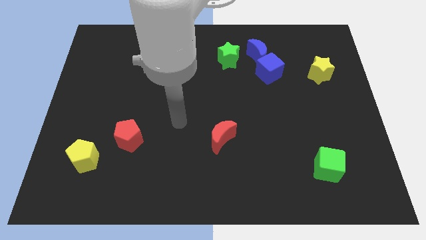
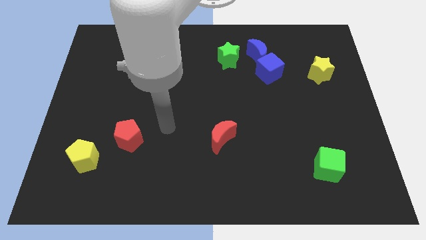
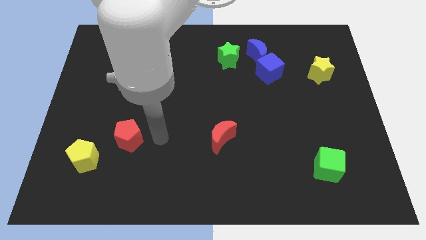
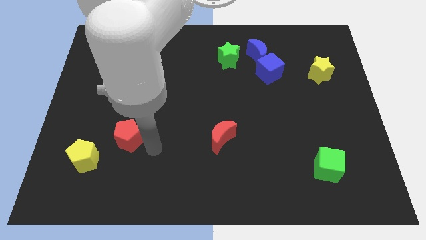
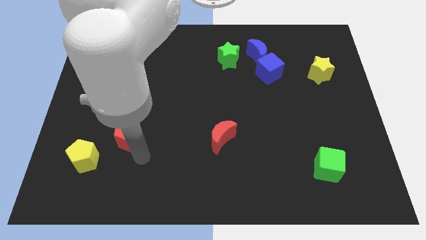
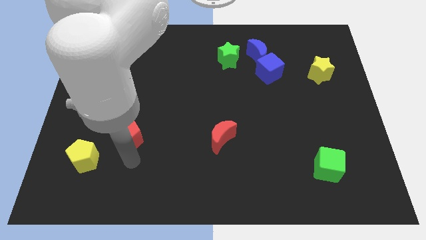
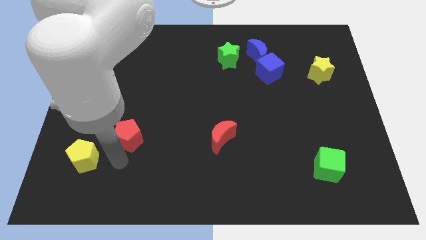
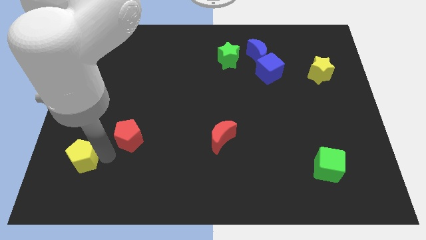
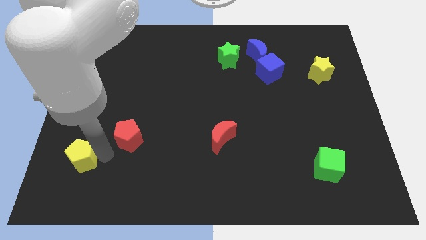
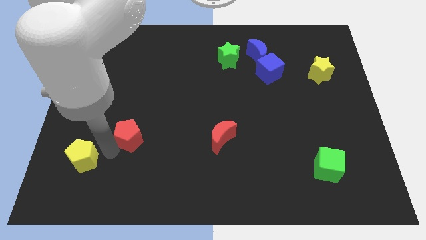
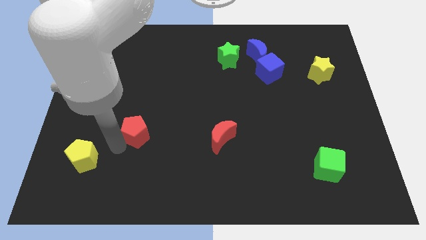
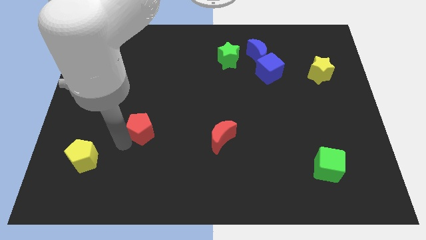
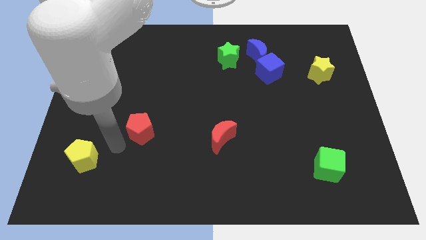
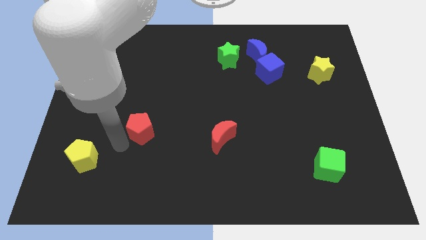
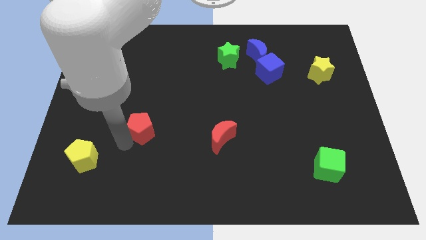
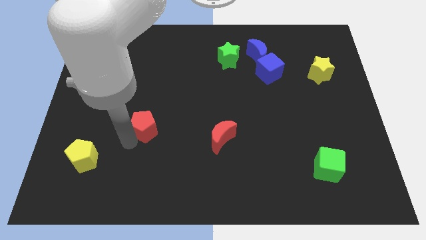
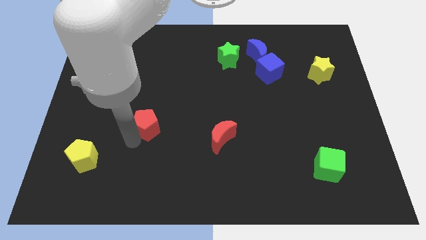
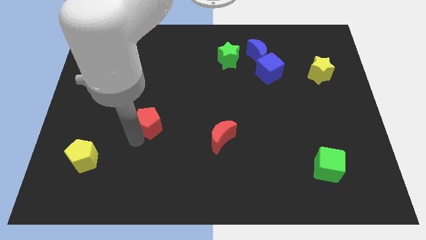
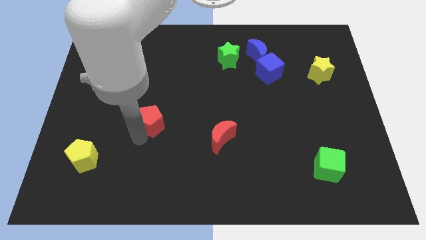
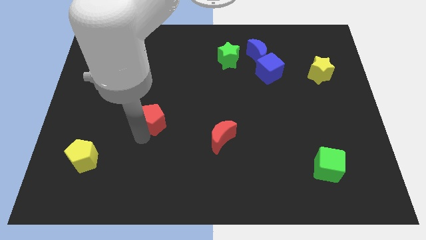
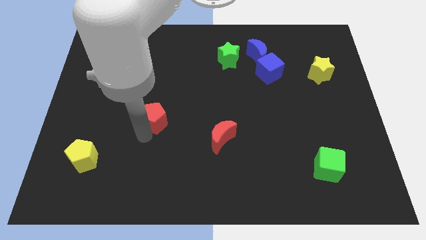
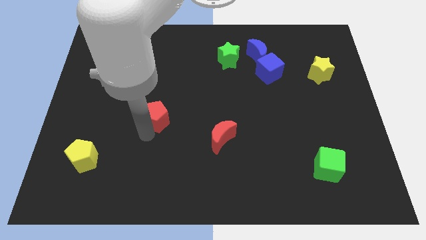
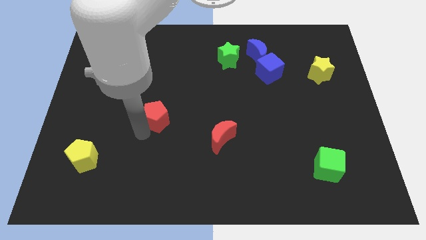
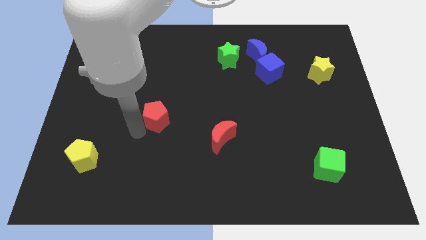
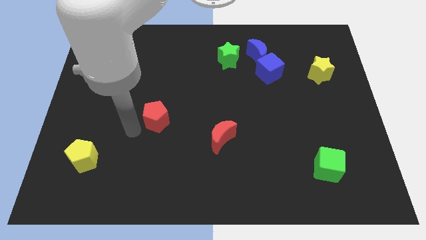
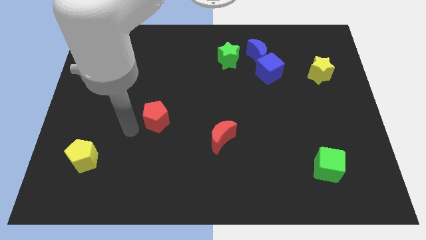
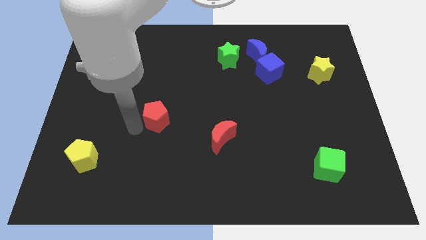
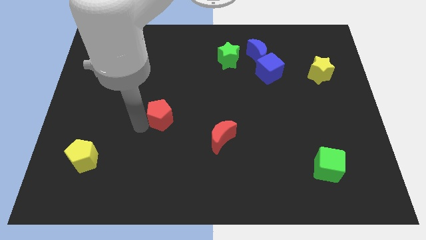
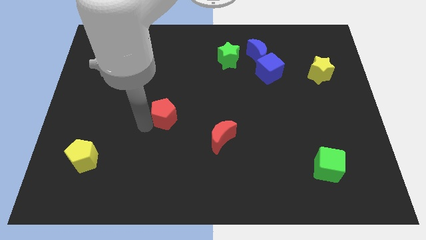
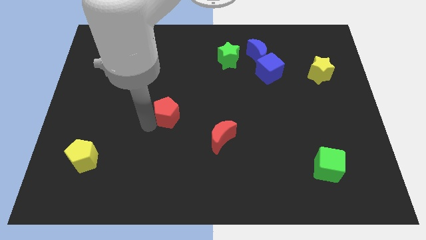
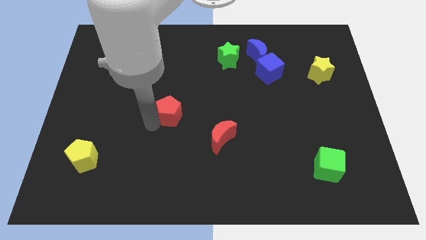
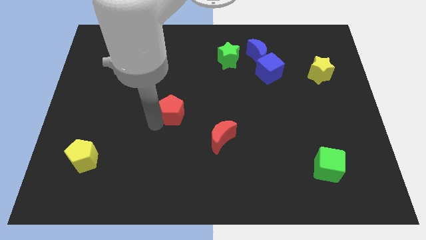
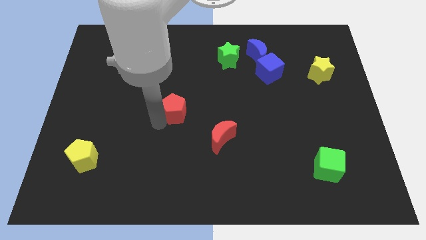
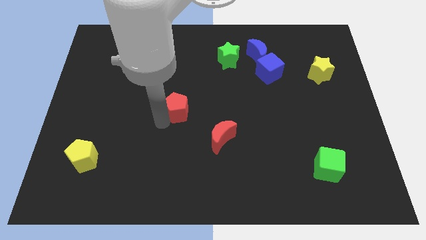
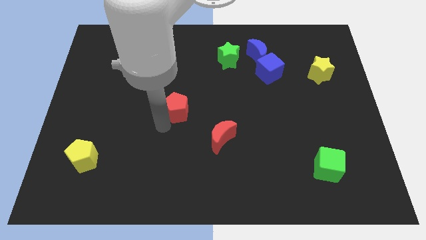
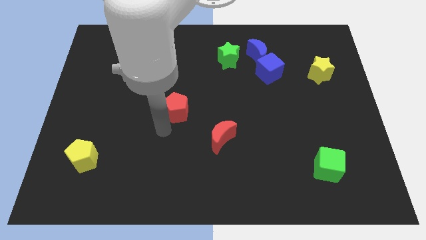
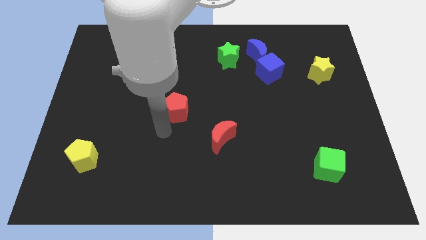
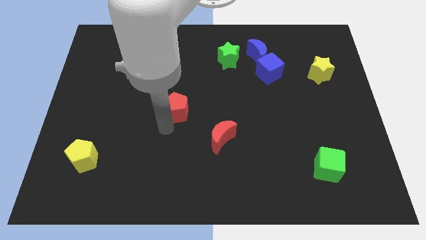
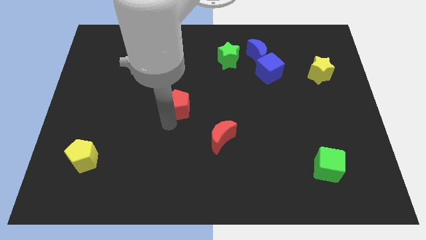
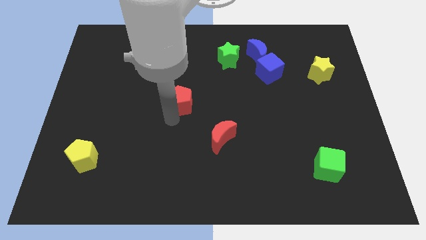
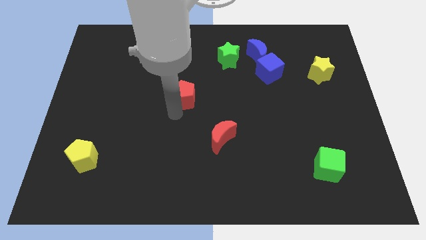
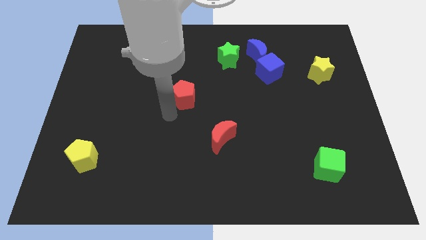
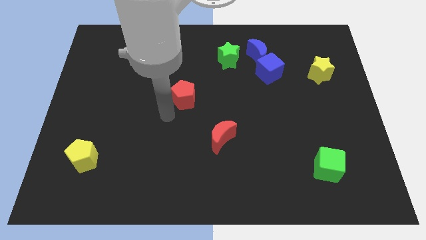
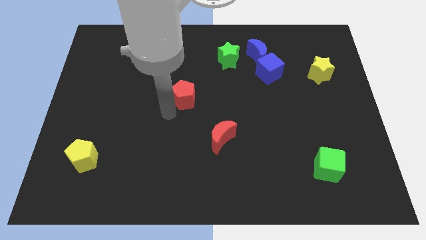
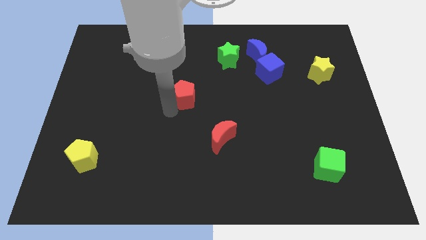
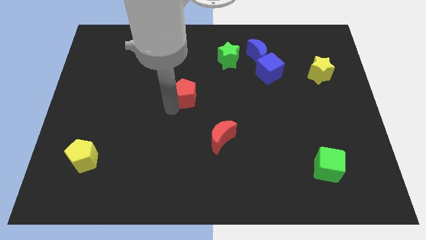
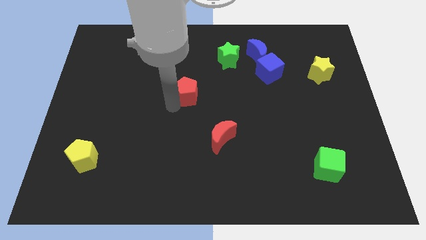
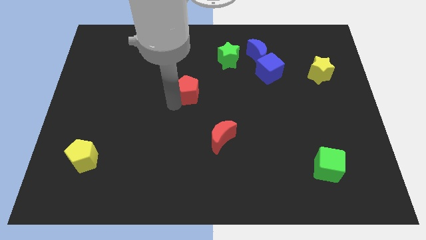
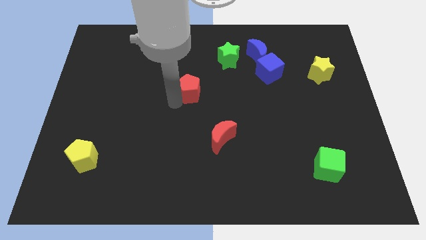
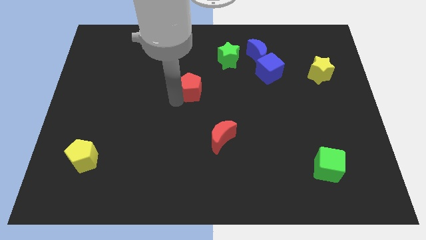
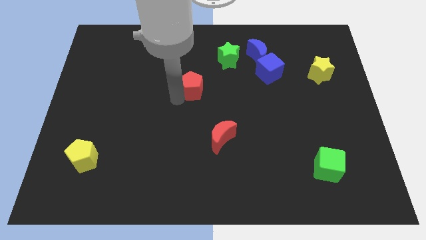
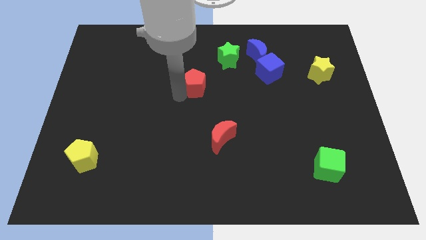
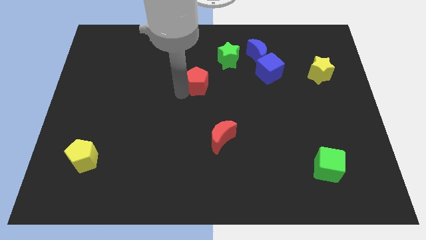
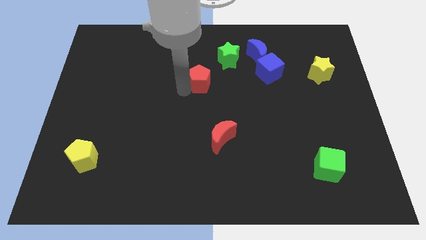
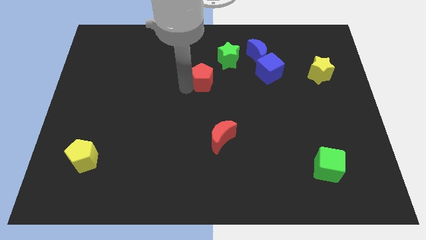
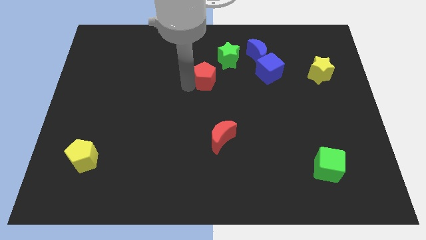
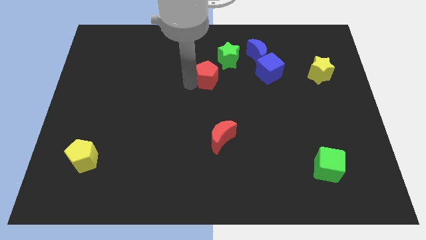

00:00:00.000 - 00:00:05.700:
move the red pentagon just left of the blue cube

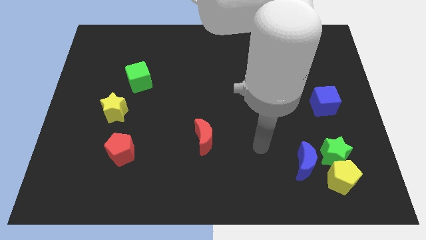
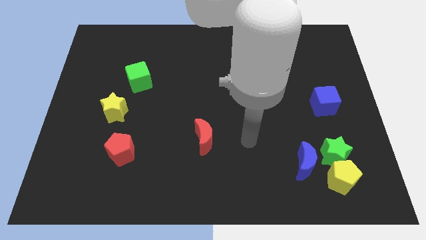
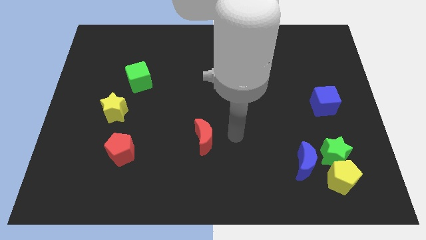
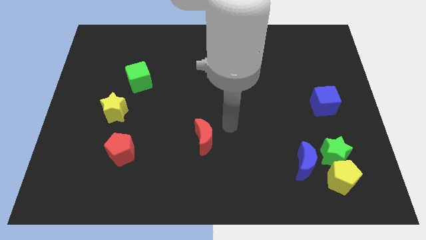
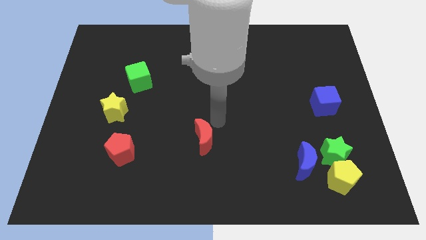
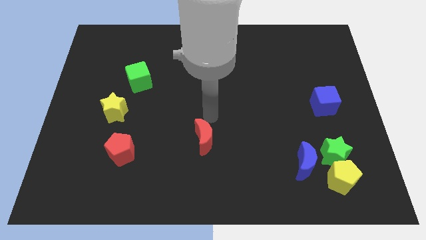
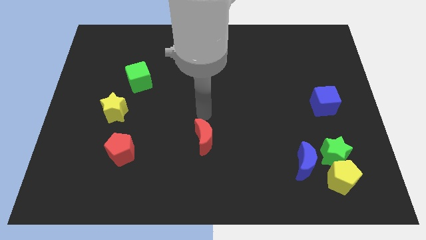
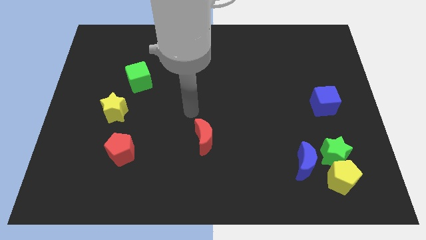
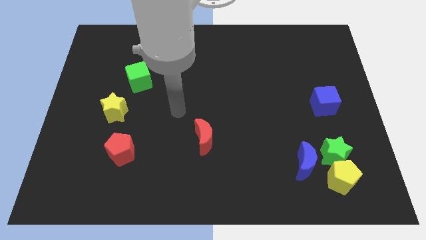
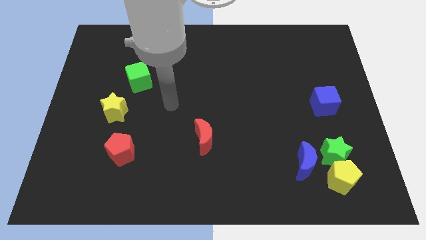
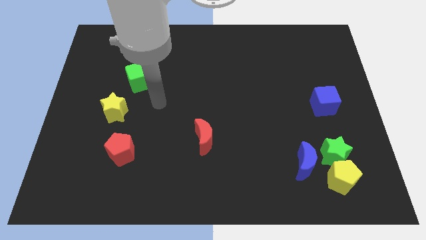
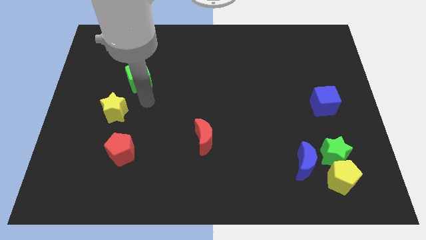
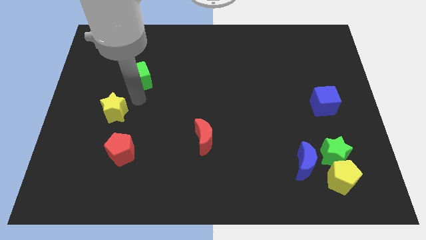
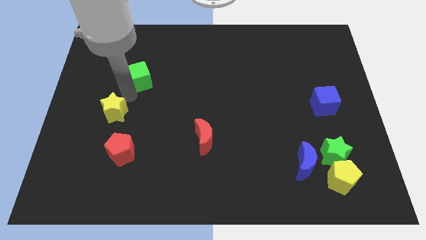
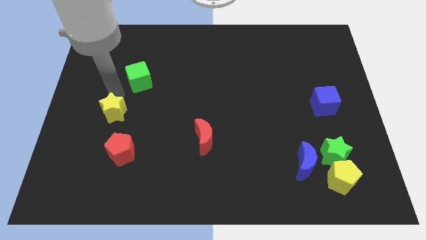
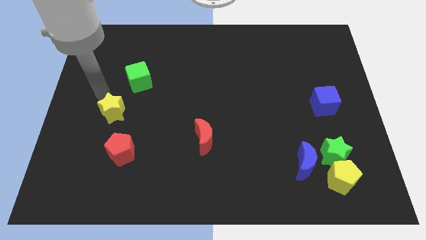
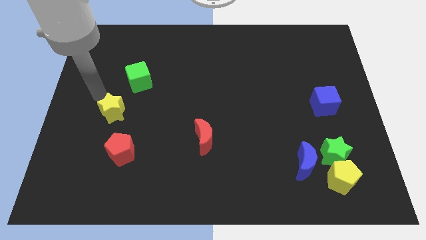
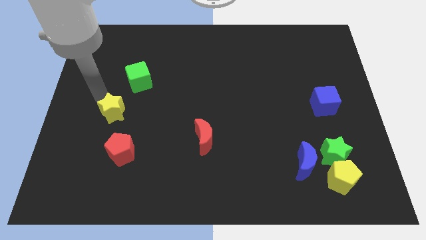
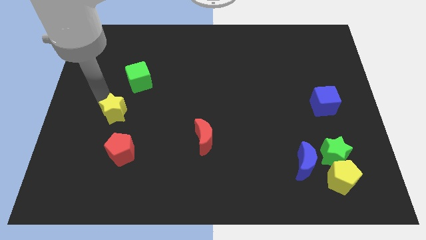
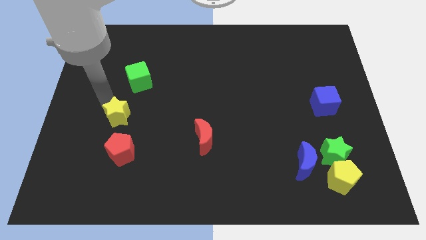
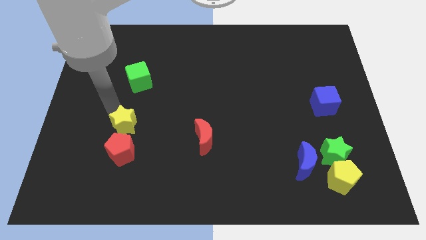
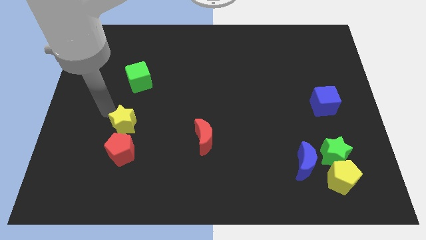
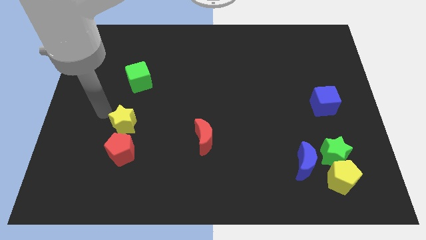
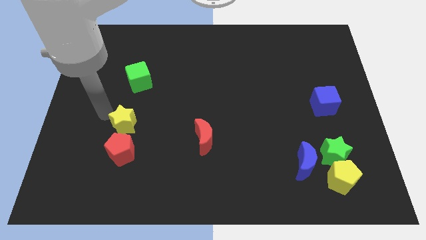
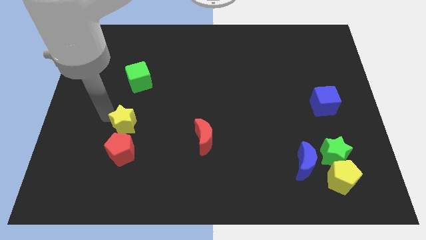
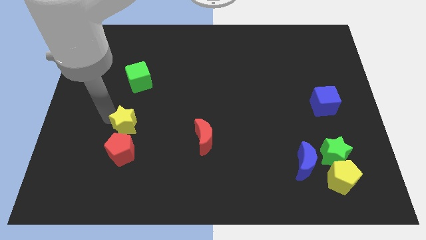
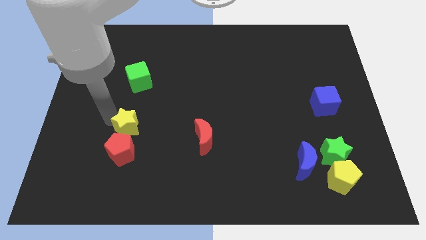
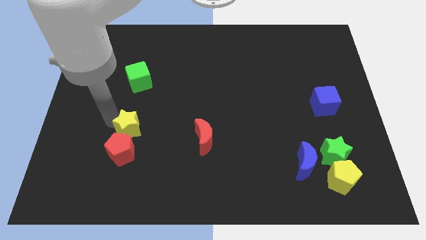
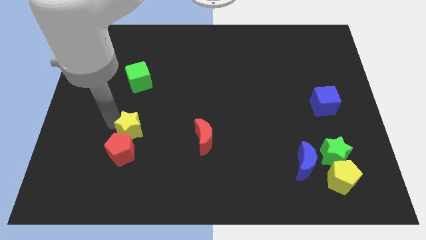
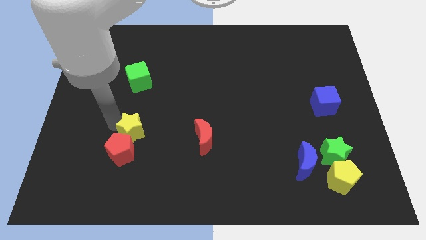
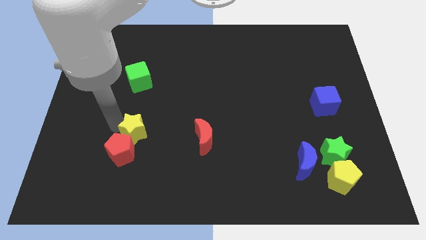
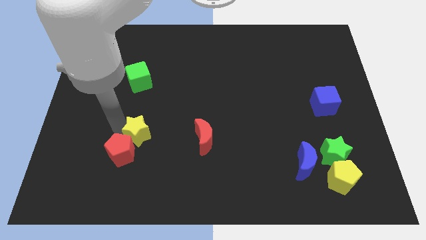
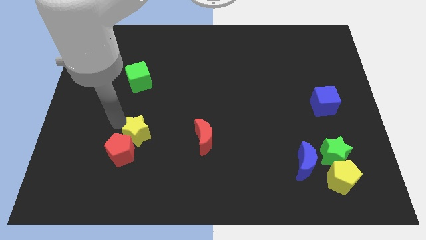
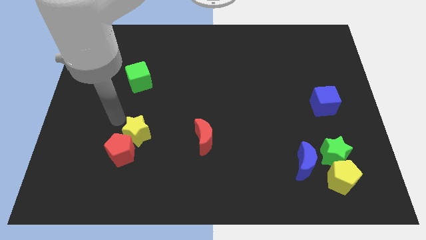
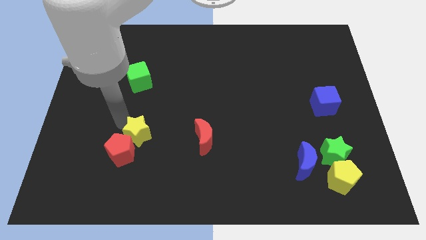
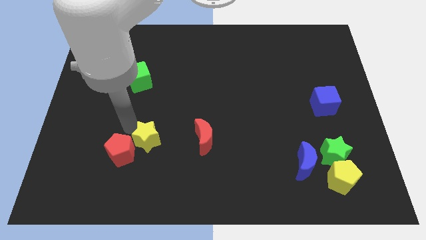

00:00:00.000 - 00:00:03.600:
put the yellow star to the right side of the red pentagon
